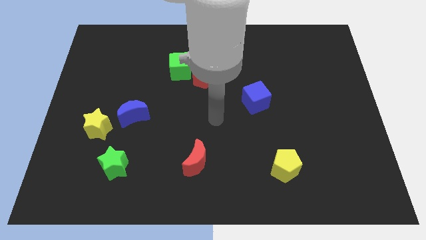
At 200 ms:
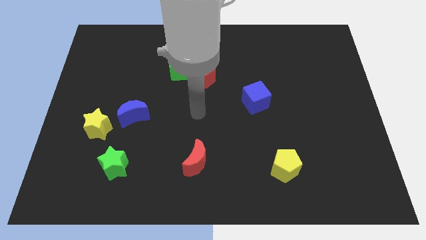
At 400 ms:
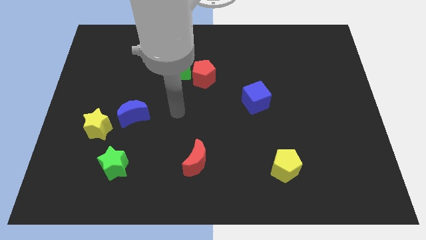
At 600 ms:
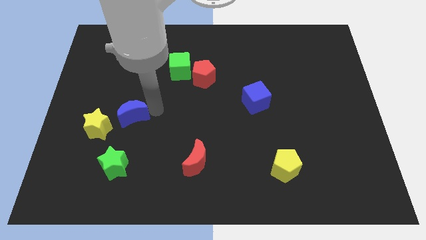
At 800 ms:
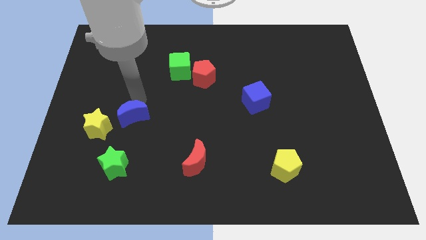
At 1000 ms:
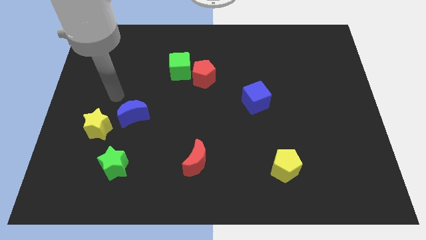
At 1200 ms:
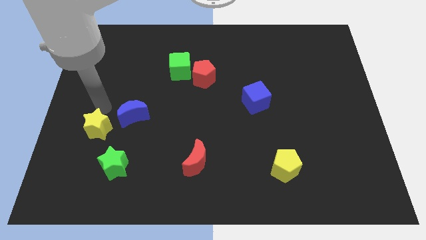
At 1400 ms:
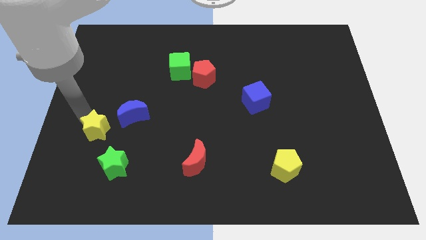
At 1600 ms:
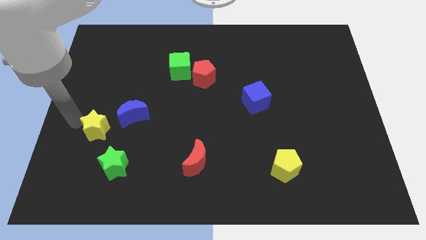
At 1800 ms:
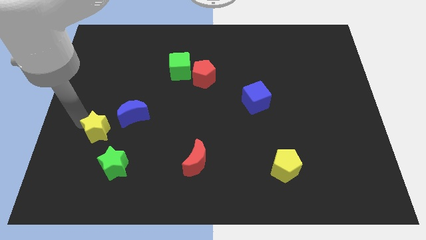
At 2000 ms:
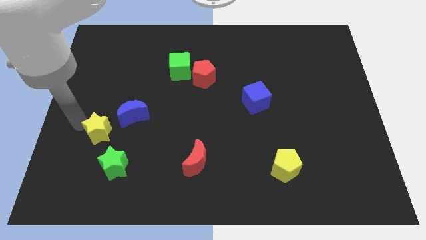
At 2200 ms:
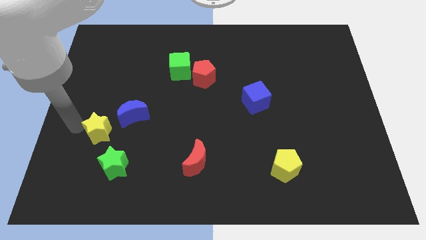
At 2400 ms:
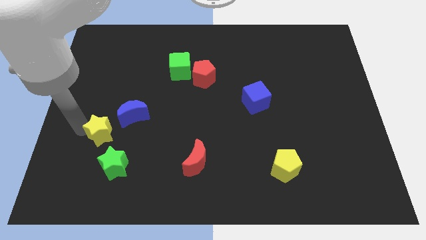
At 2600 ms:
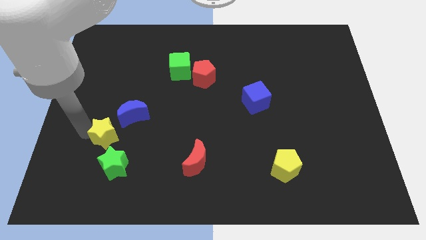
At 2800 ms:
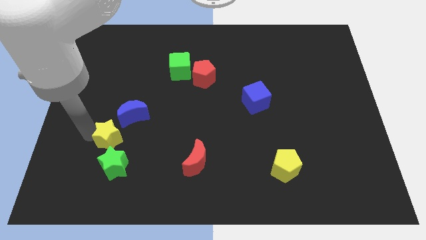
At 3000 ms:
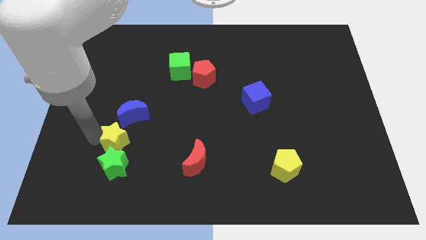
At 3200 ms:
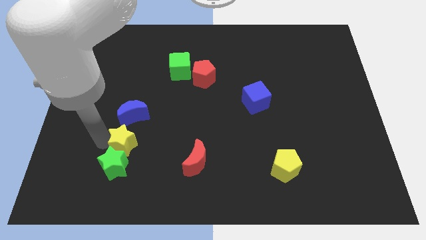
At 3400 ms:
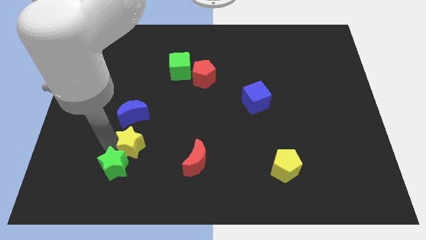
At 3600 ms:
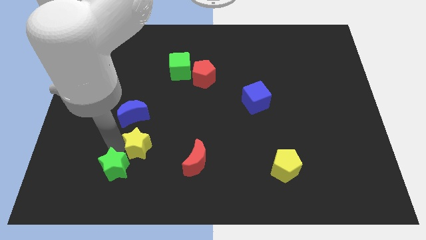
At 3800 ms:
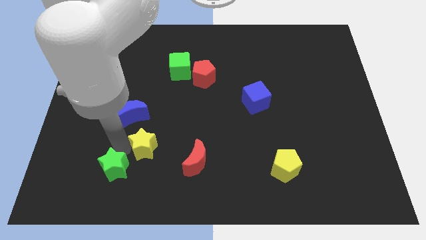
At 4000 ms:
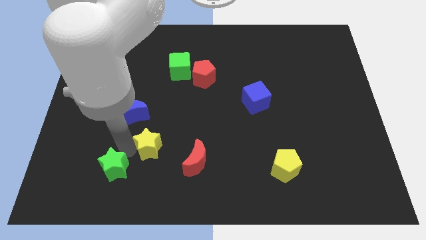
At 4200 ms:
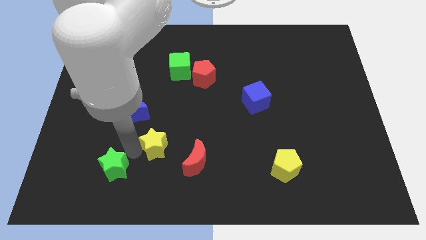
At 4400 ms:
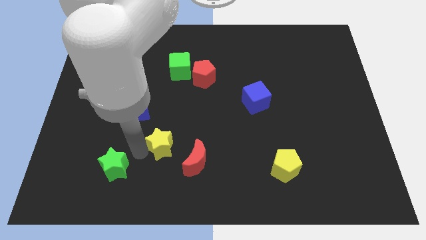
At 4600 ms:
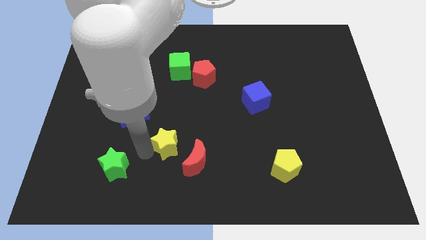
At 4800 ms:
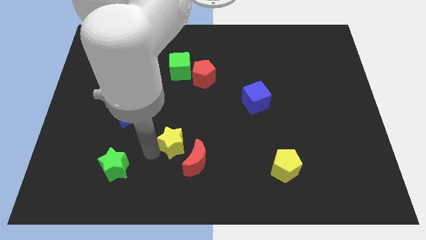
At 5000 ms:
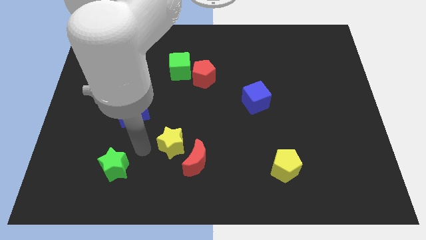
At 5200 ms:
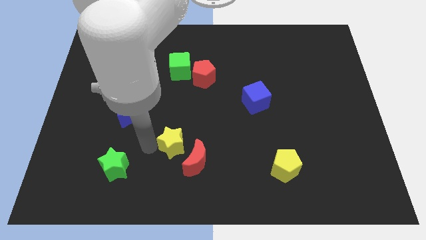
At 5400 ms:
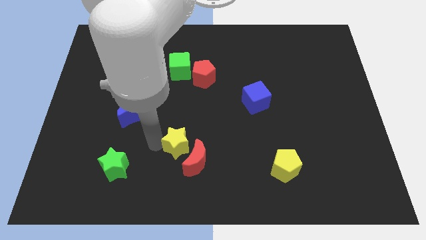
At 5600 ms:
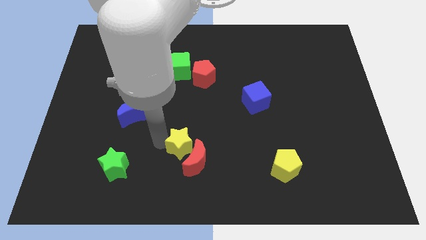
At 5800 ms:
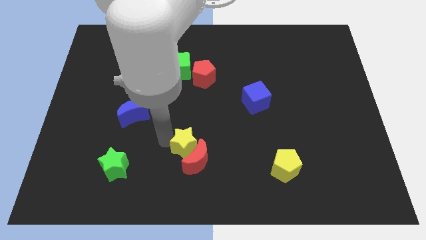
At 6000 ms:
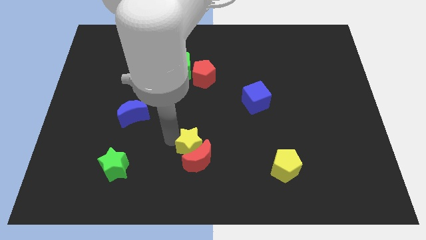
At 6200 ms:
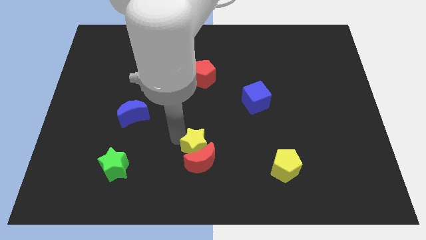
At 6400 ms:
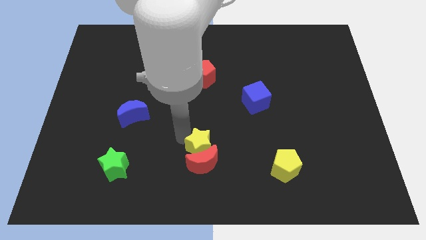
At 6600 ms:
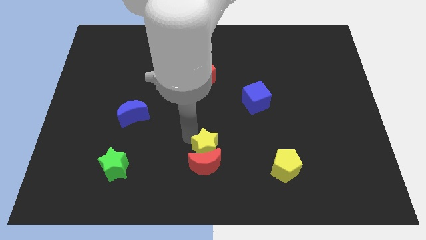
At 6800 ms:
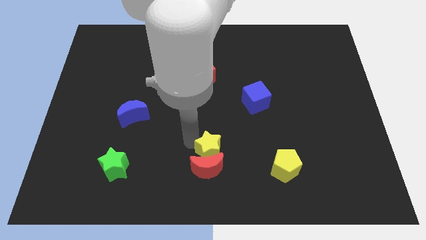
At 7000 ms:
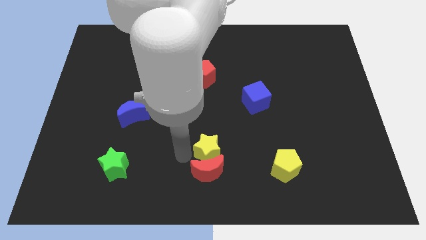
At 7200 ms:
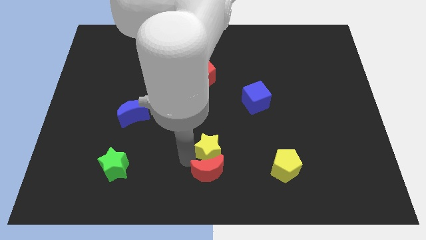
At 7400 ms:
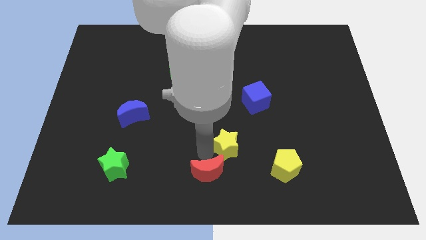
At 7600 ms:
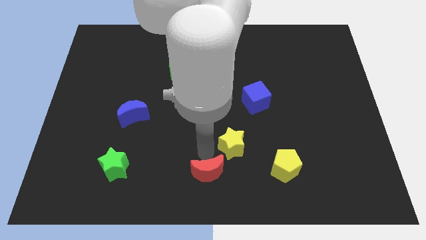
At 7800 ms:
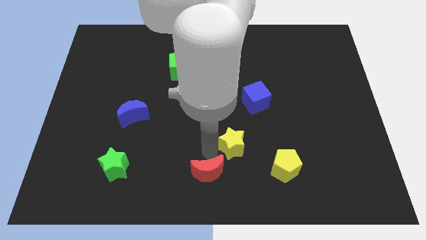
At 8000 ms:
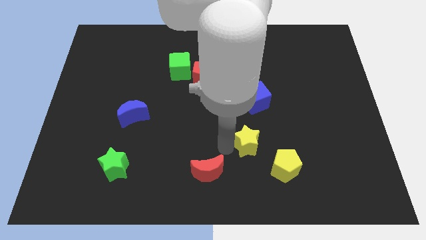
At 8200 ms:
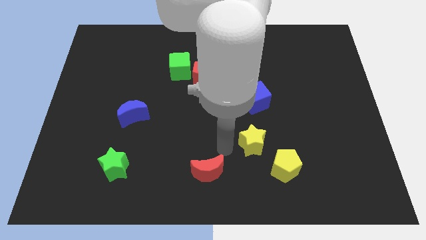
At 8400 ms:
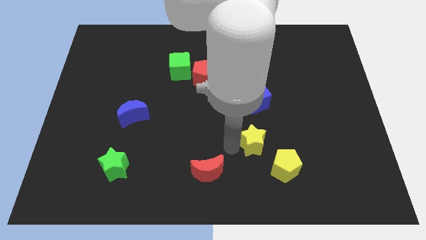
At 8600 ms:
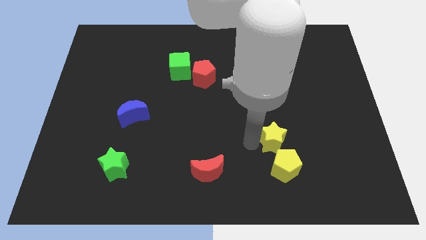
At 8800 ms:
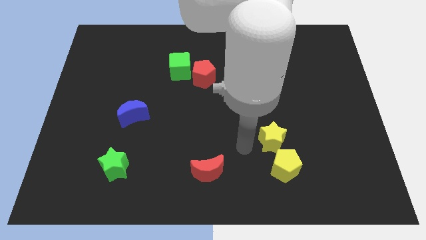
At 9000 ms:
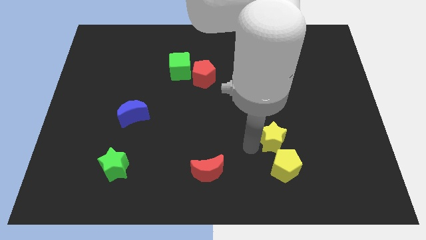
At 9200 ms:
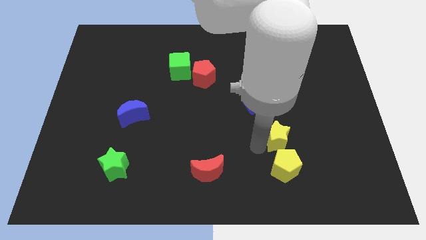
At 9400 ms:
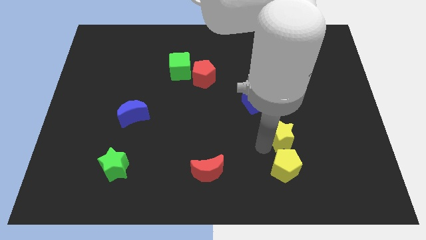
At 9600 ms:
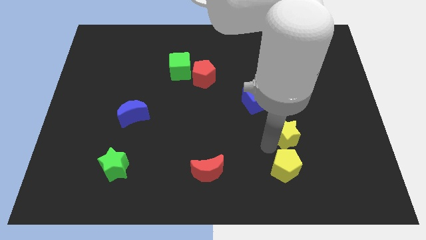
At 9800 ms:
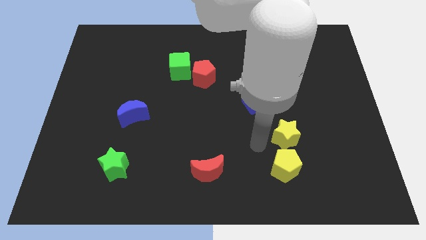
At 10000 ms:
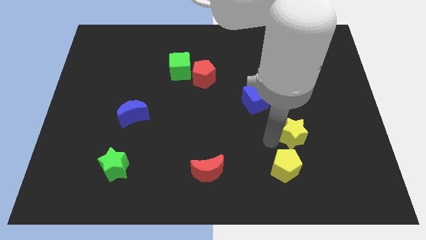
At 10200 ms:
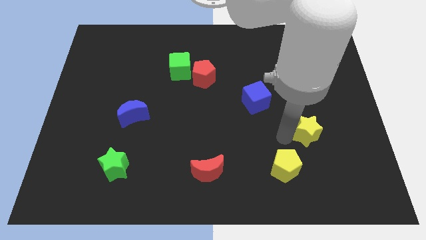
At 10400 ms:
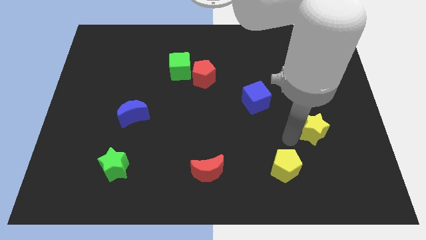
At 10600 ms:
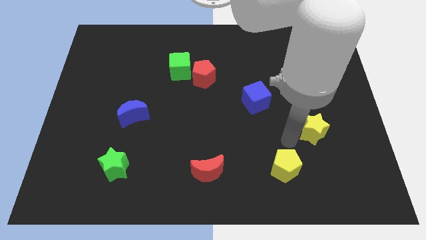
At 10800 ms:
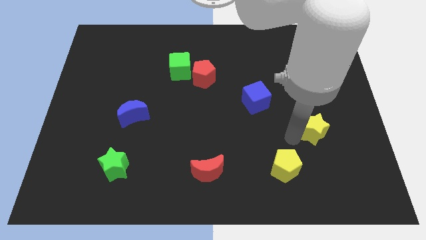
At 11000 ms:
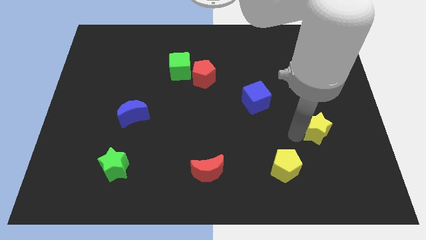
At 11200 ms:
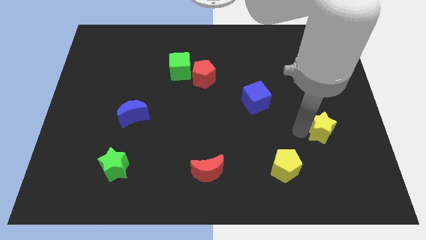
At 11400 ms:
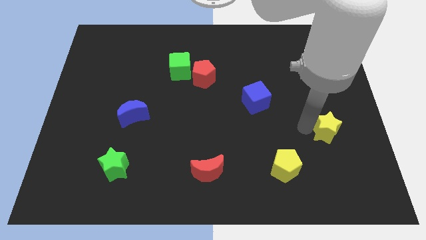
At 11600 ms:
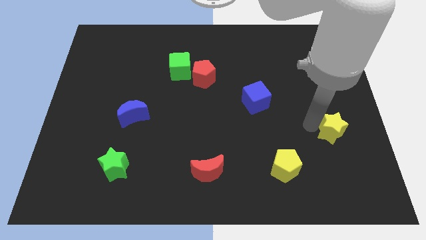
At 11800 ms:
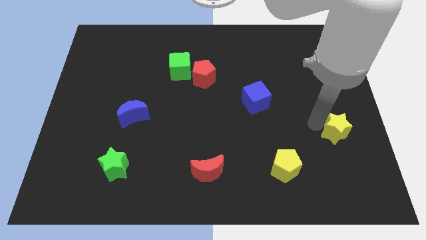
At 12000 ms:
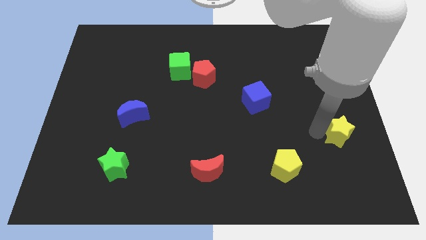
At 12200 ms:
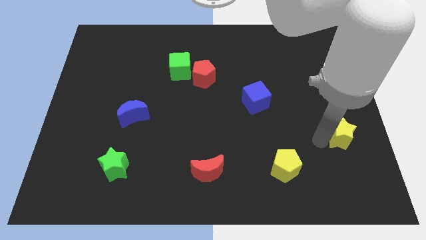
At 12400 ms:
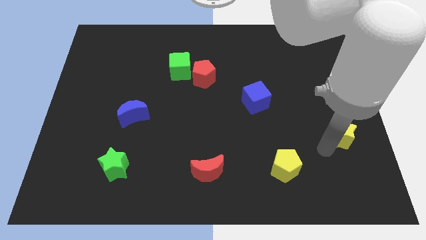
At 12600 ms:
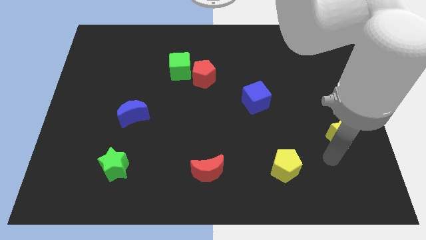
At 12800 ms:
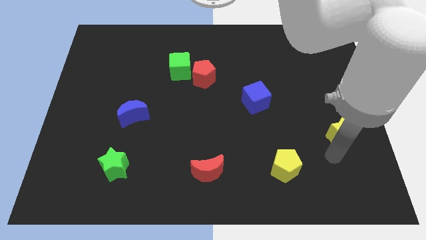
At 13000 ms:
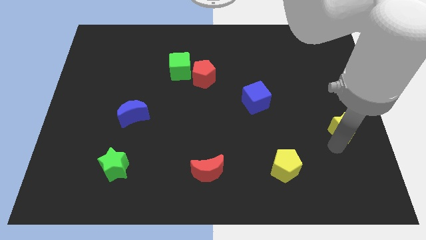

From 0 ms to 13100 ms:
move the yellow star to the right side of the board
